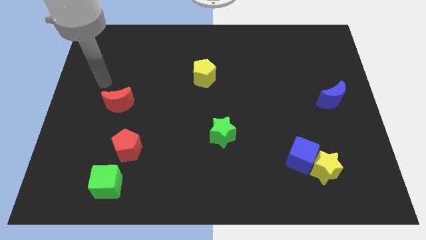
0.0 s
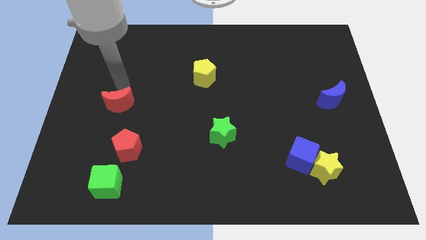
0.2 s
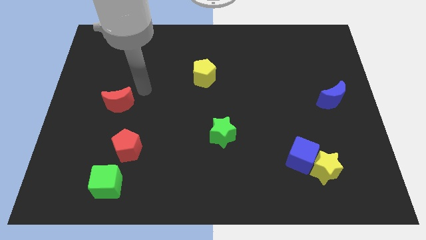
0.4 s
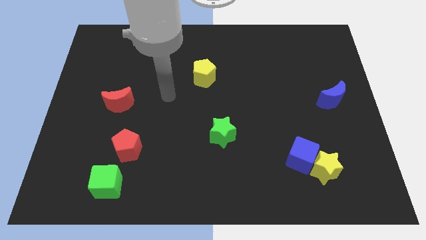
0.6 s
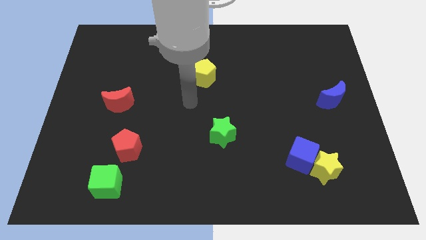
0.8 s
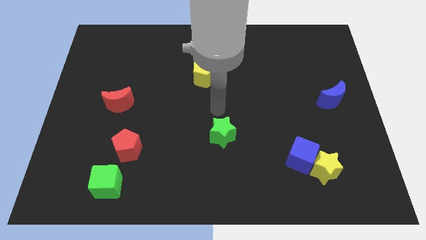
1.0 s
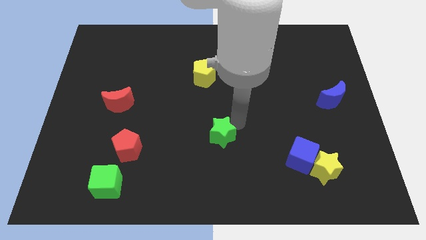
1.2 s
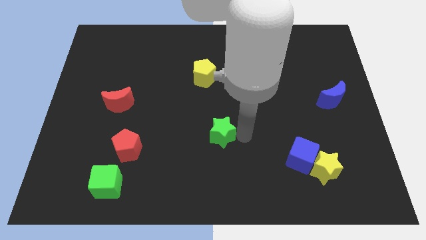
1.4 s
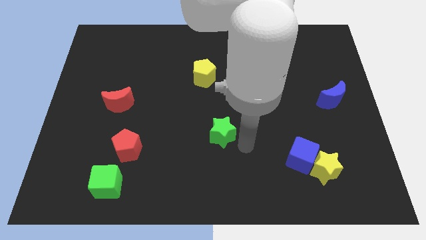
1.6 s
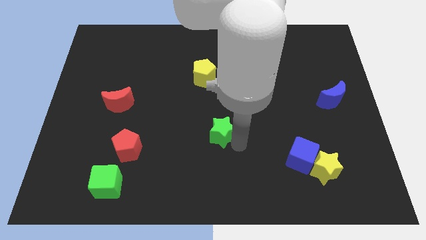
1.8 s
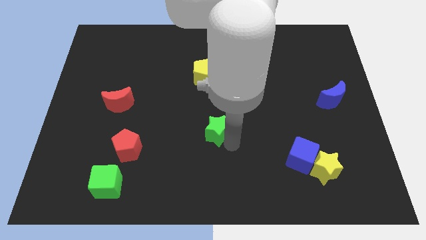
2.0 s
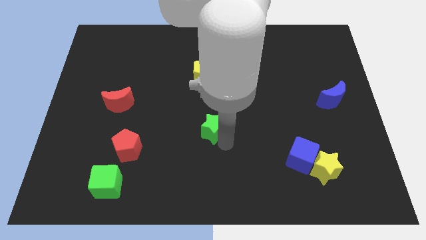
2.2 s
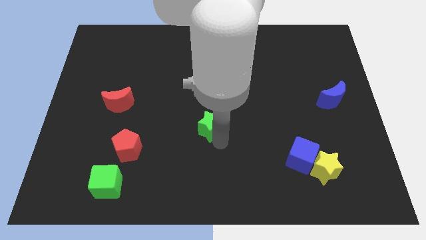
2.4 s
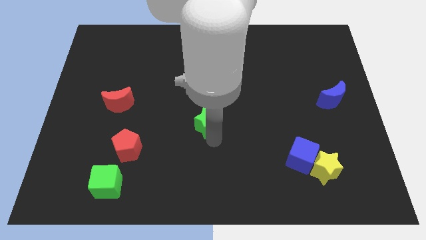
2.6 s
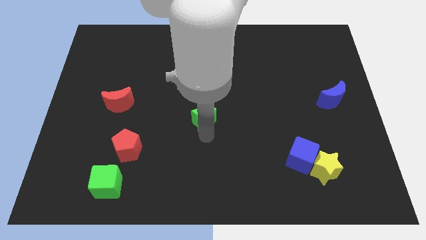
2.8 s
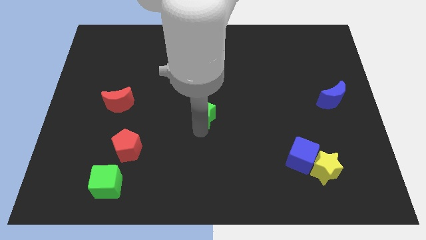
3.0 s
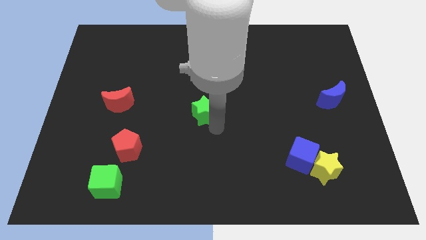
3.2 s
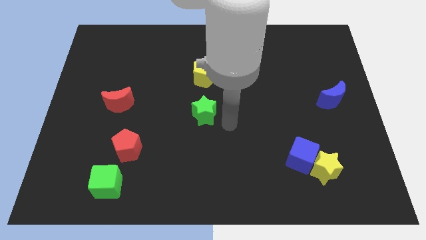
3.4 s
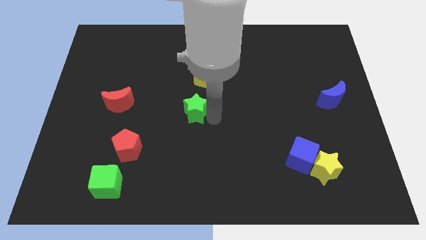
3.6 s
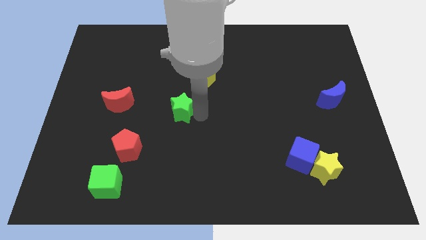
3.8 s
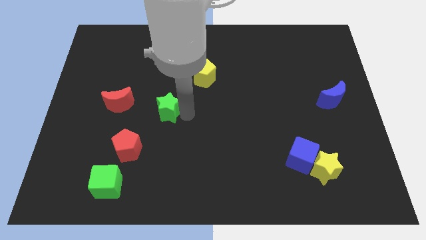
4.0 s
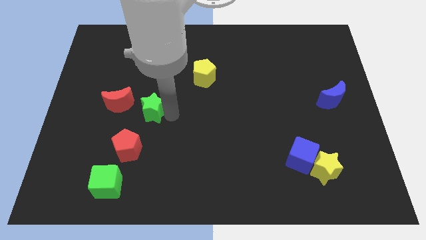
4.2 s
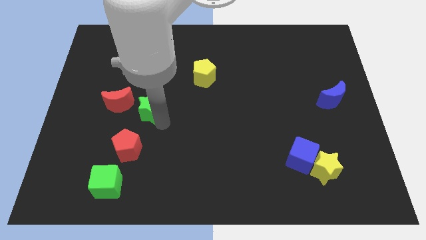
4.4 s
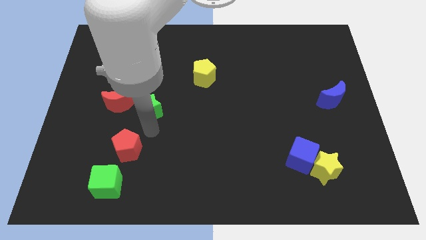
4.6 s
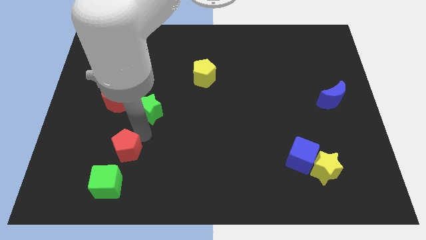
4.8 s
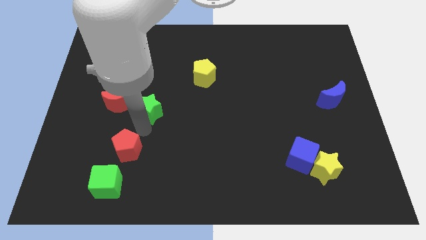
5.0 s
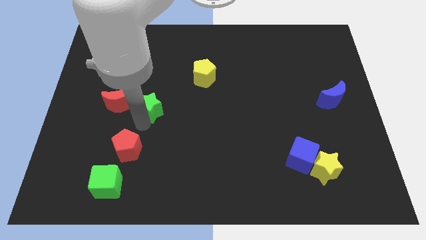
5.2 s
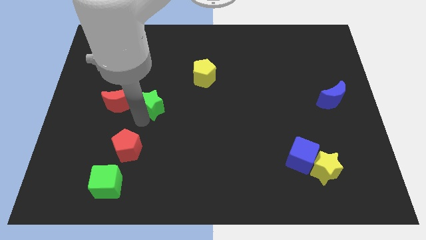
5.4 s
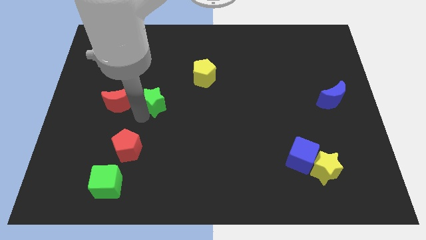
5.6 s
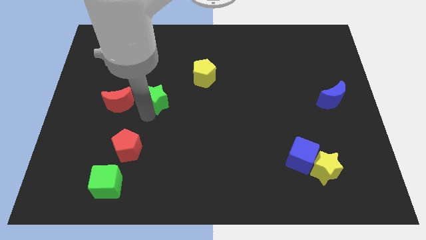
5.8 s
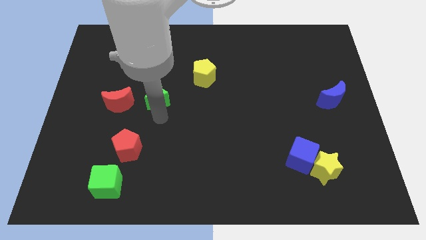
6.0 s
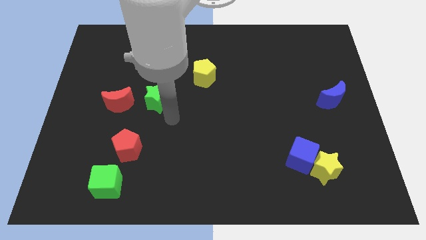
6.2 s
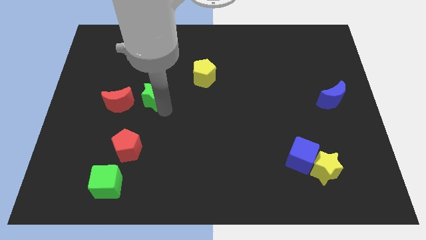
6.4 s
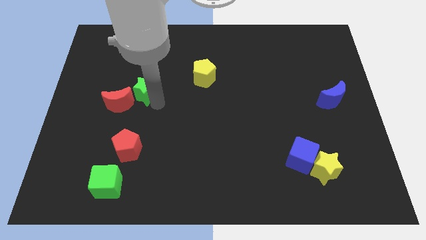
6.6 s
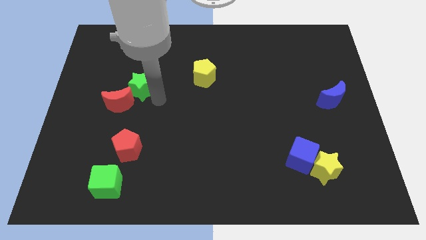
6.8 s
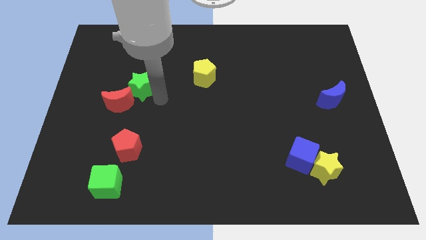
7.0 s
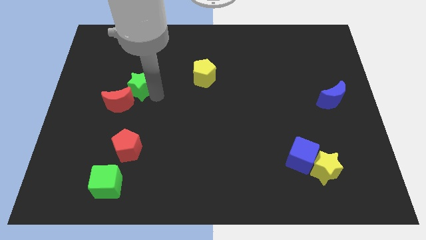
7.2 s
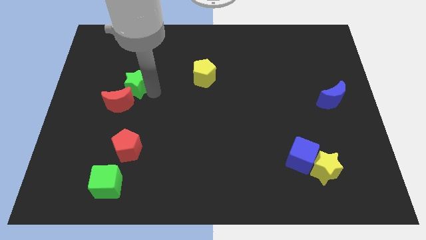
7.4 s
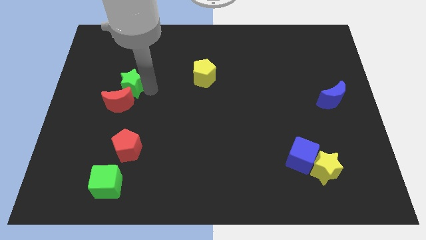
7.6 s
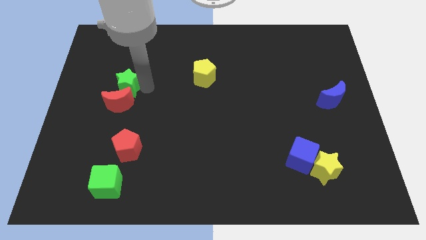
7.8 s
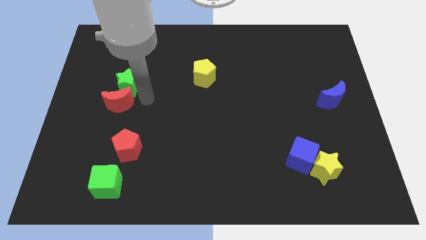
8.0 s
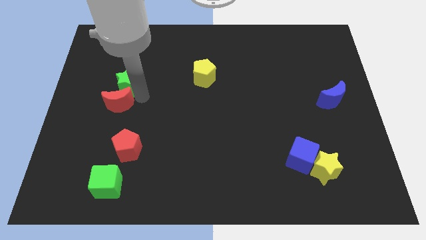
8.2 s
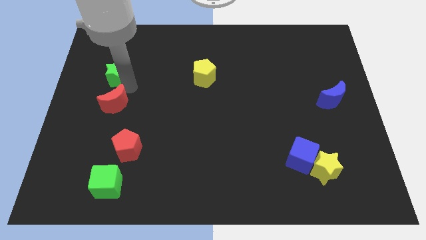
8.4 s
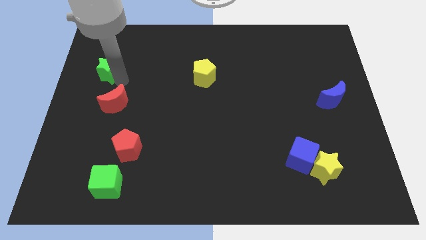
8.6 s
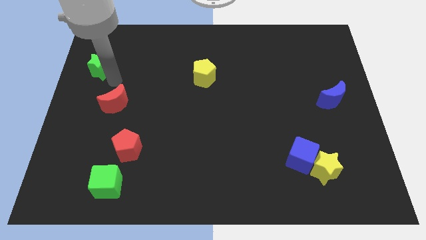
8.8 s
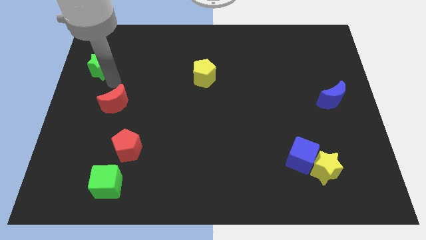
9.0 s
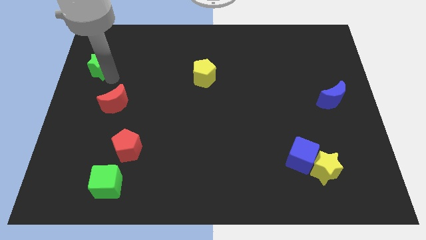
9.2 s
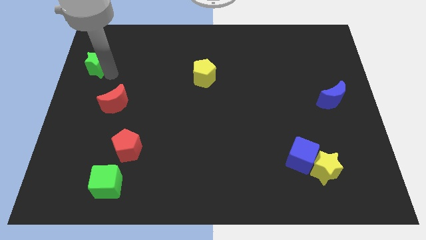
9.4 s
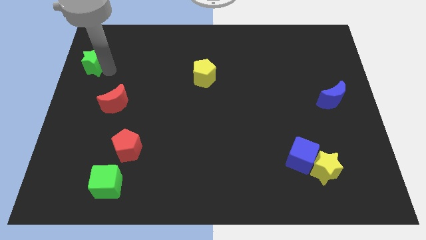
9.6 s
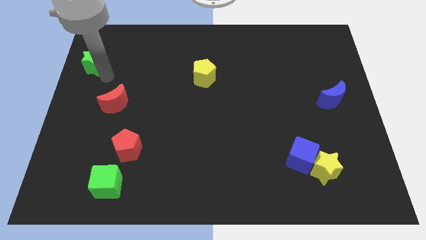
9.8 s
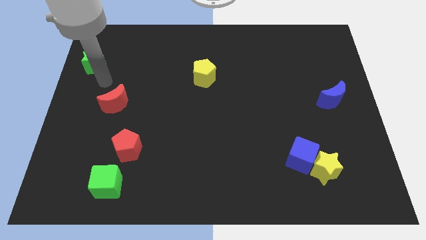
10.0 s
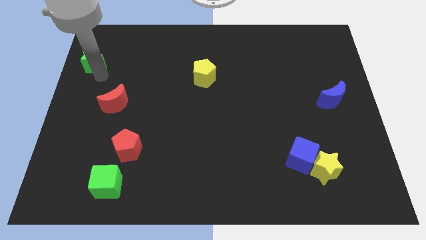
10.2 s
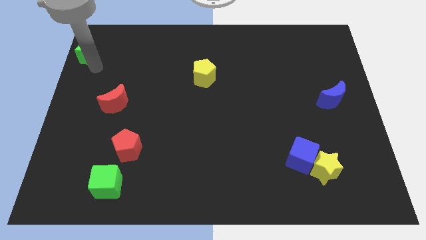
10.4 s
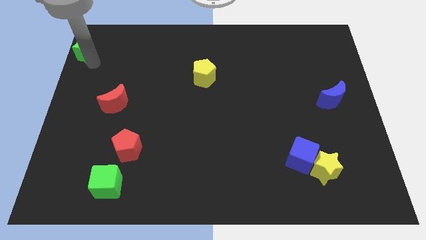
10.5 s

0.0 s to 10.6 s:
put the green star to the top left corner

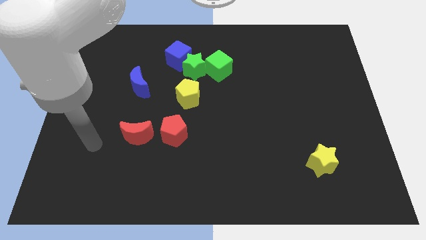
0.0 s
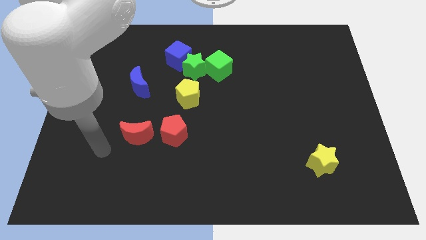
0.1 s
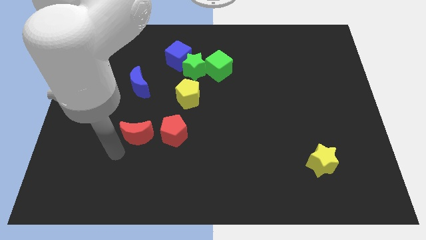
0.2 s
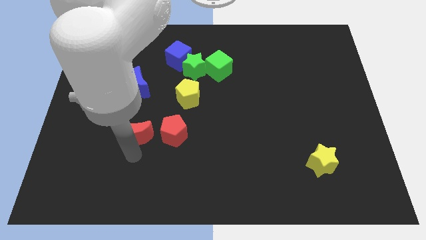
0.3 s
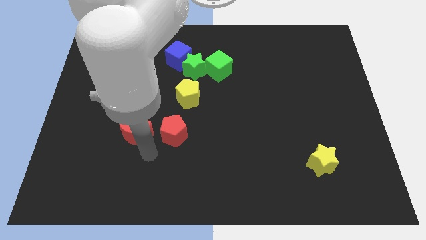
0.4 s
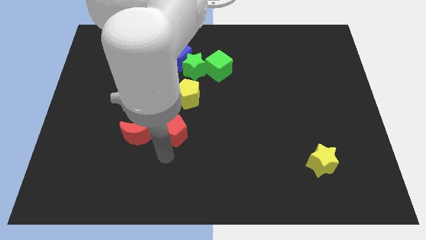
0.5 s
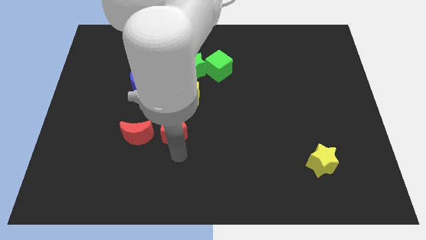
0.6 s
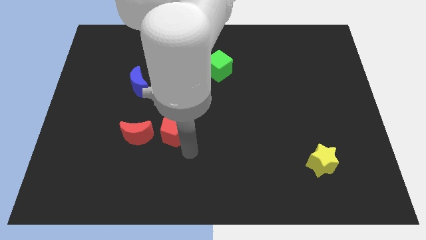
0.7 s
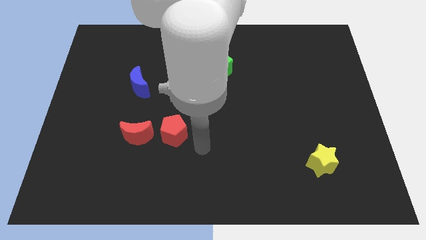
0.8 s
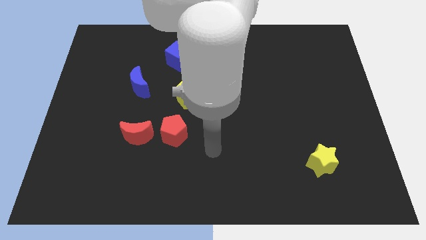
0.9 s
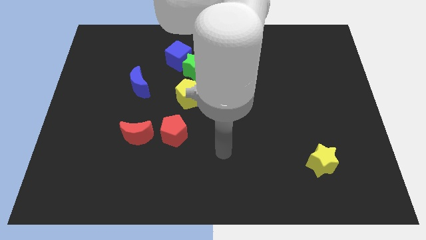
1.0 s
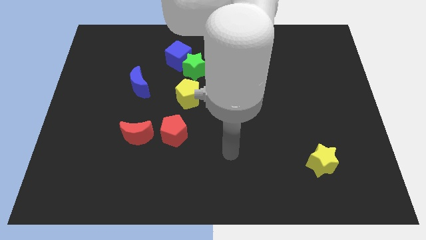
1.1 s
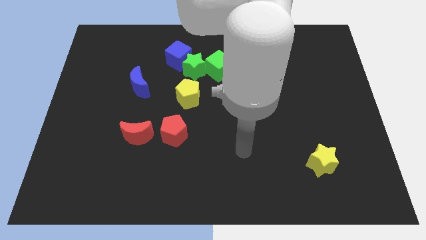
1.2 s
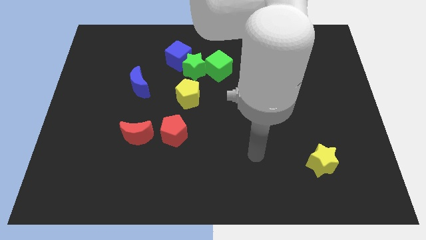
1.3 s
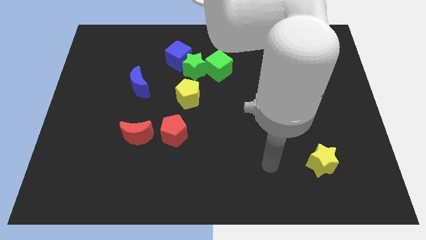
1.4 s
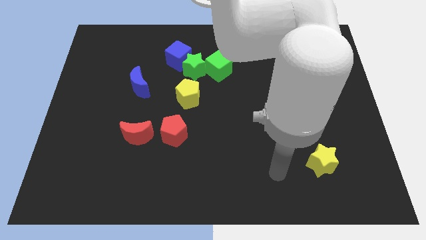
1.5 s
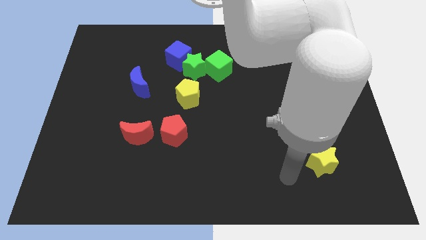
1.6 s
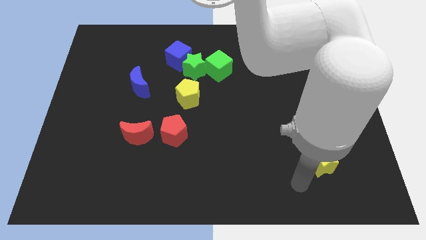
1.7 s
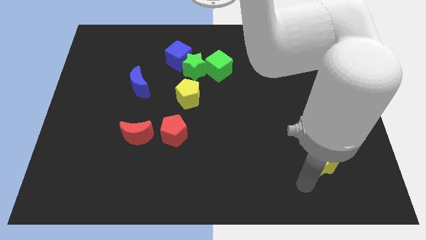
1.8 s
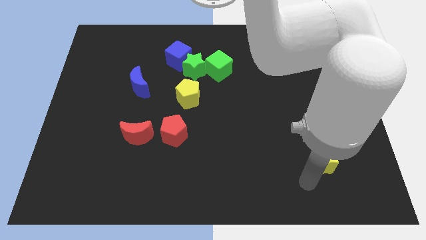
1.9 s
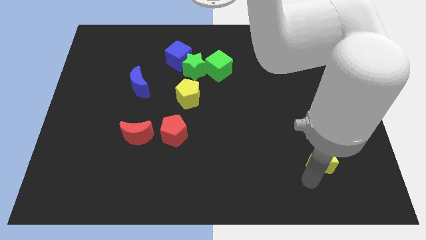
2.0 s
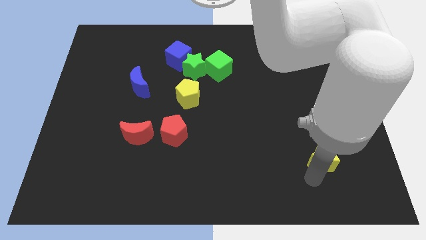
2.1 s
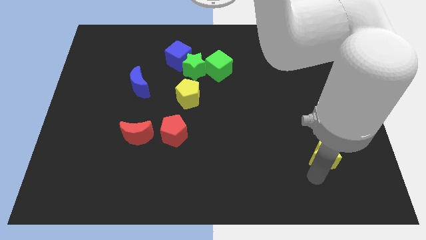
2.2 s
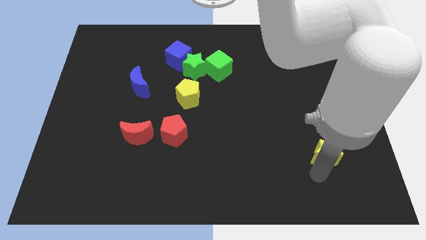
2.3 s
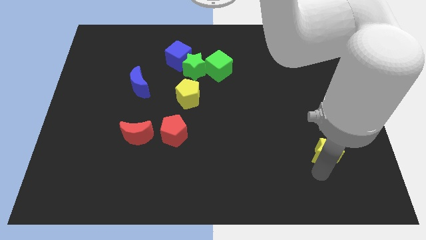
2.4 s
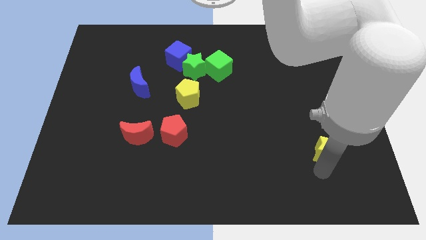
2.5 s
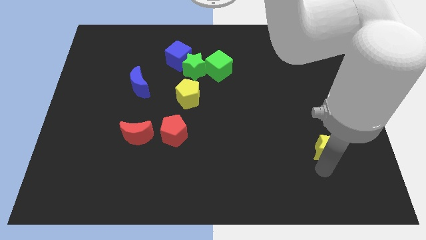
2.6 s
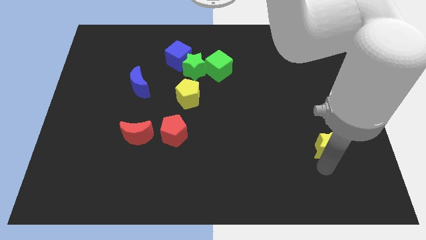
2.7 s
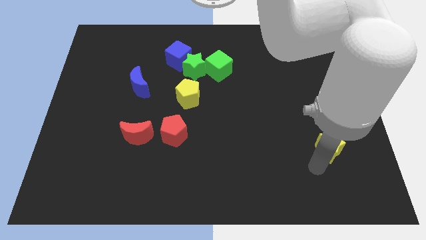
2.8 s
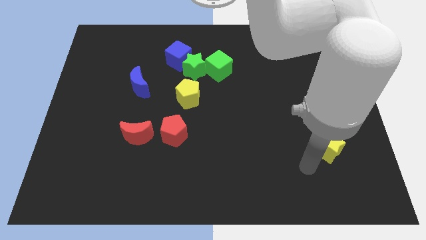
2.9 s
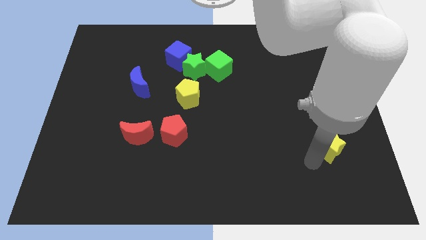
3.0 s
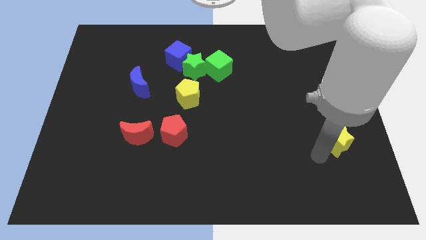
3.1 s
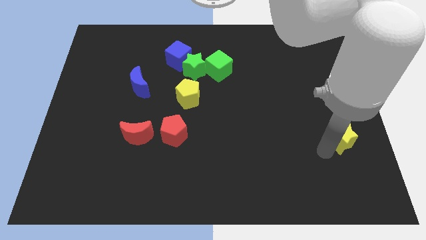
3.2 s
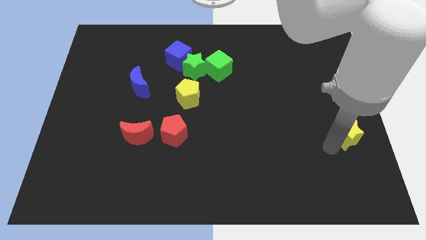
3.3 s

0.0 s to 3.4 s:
move the yellow star to the right side
